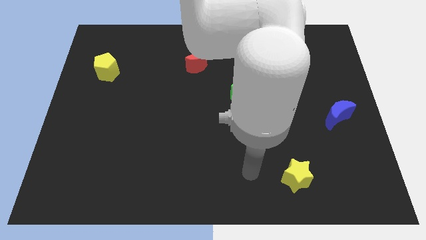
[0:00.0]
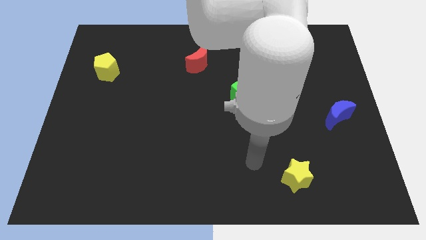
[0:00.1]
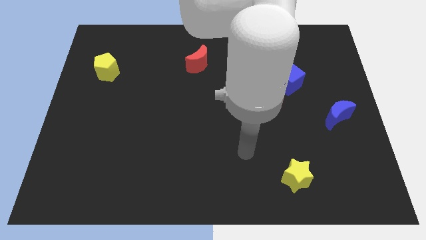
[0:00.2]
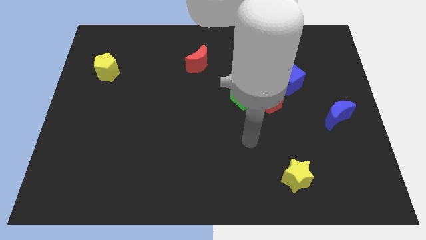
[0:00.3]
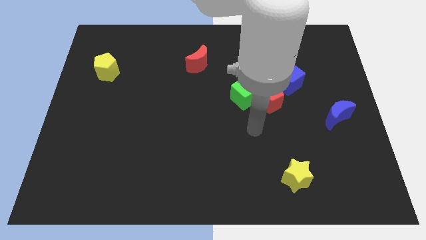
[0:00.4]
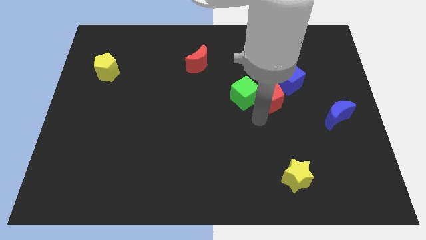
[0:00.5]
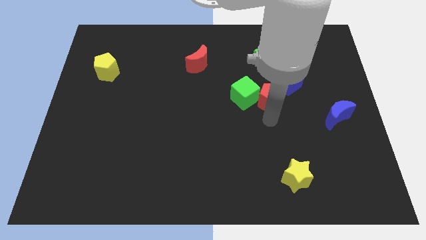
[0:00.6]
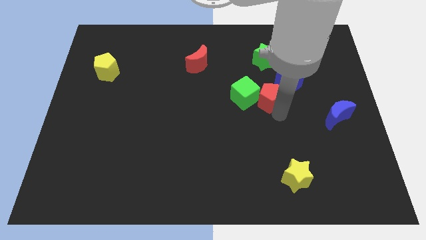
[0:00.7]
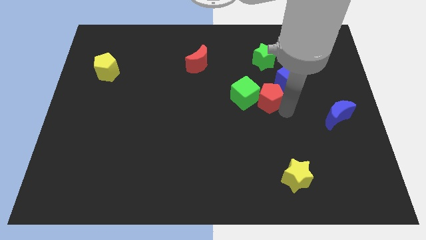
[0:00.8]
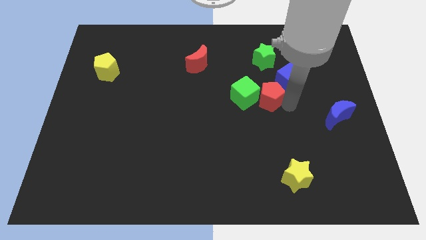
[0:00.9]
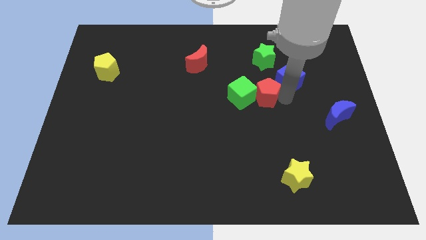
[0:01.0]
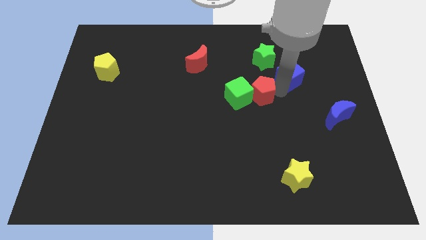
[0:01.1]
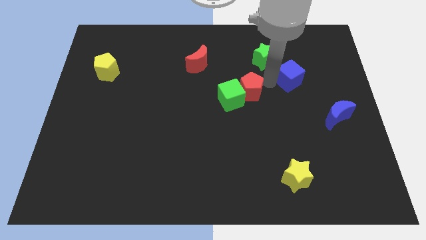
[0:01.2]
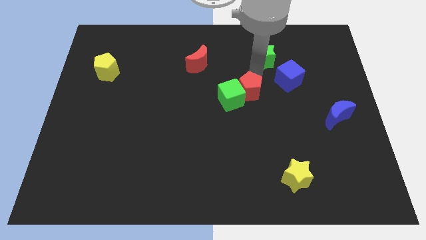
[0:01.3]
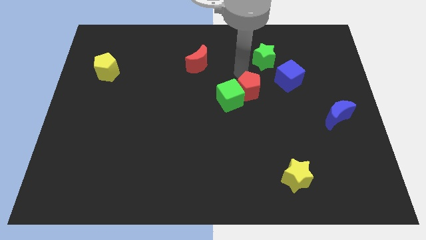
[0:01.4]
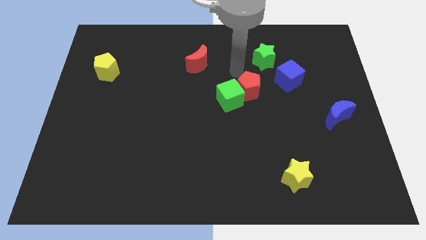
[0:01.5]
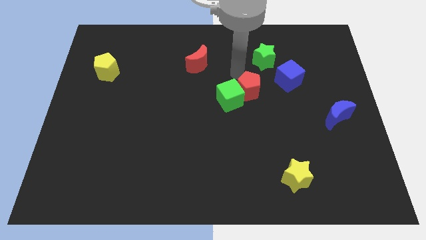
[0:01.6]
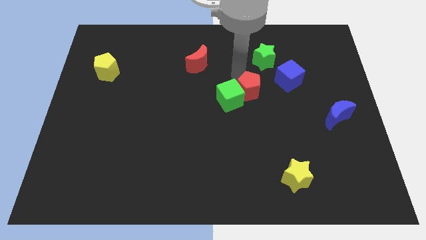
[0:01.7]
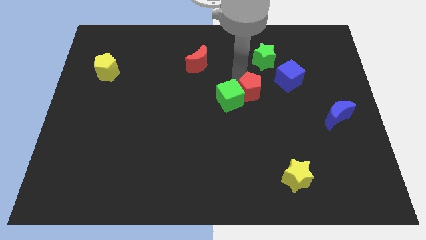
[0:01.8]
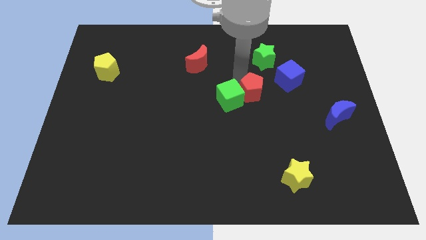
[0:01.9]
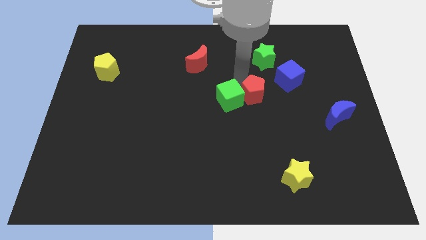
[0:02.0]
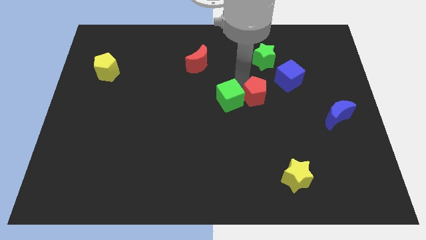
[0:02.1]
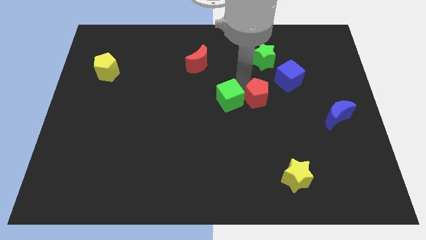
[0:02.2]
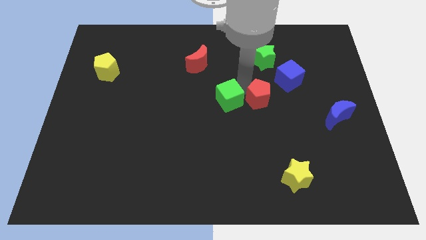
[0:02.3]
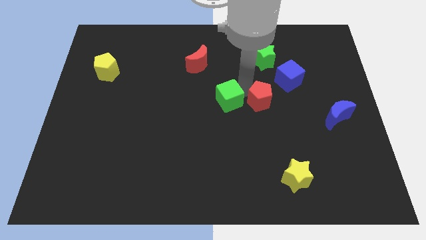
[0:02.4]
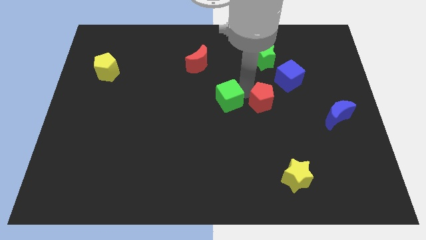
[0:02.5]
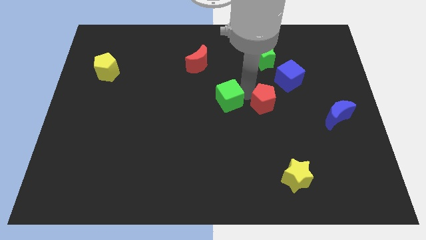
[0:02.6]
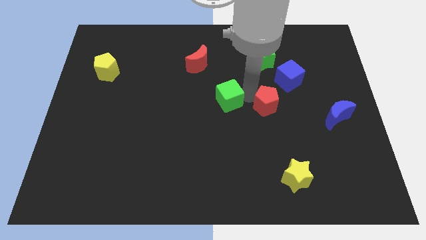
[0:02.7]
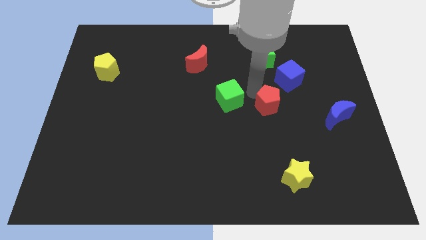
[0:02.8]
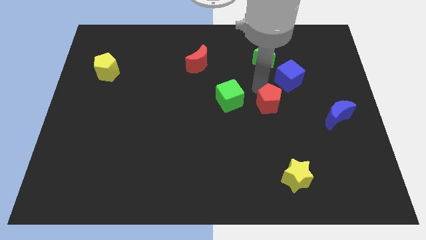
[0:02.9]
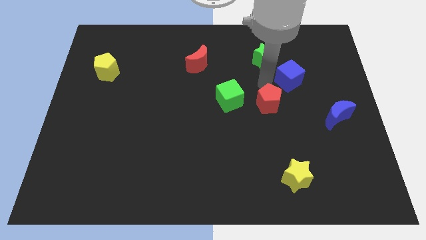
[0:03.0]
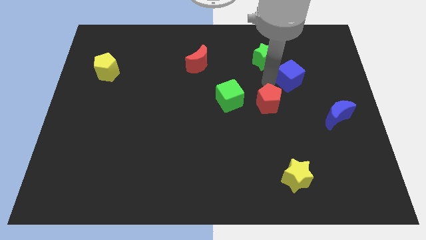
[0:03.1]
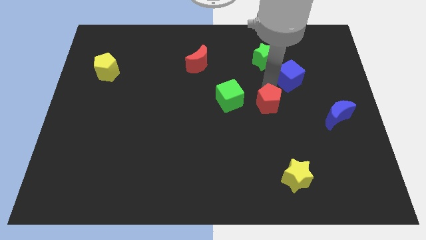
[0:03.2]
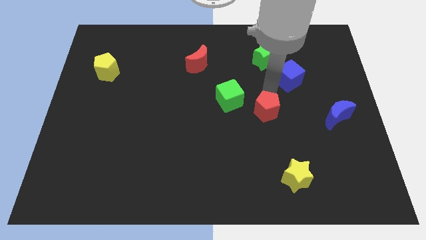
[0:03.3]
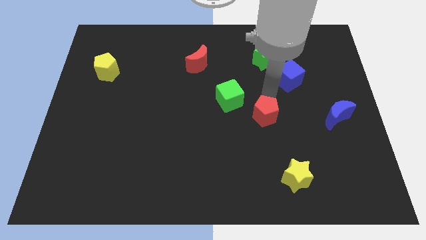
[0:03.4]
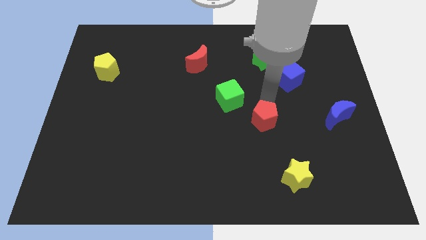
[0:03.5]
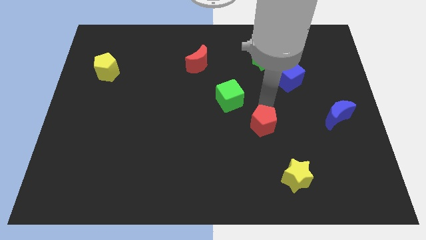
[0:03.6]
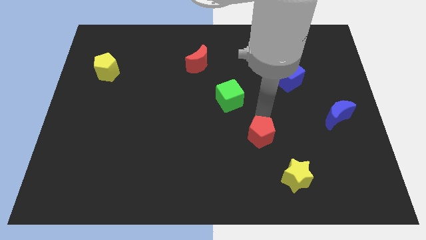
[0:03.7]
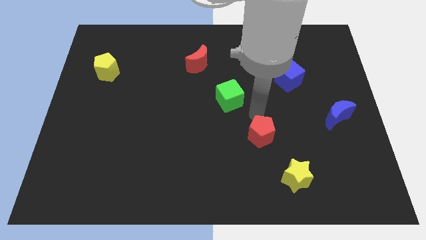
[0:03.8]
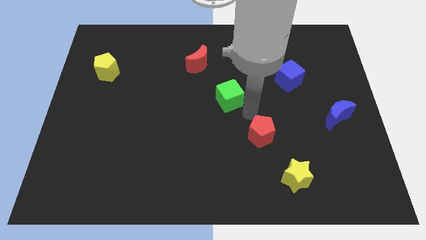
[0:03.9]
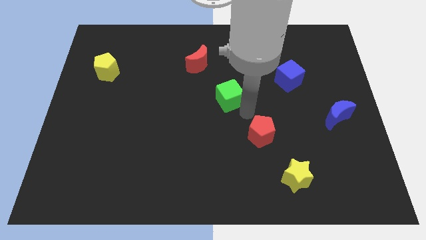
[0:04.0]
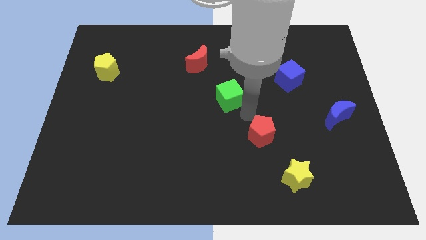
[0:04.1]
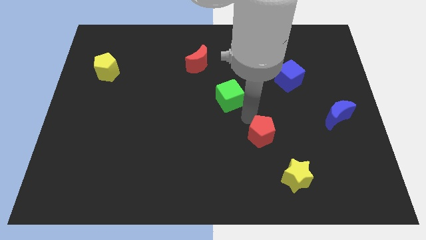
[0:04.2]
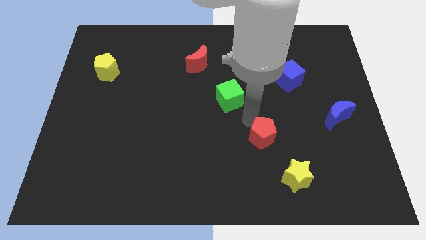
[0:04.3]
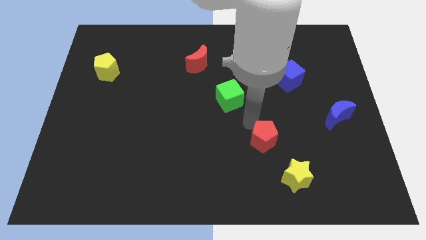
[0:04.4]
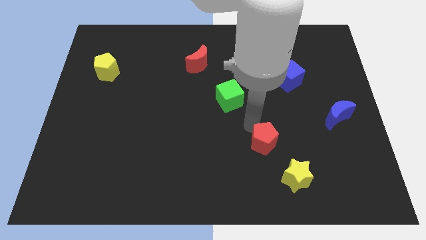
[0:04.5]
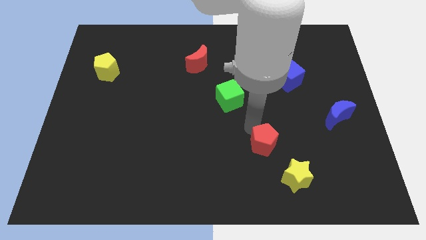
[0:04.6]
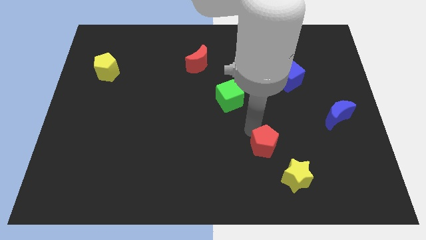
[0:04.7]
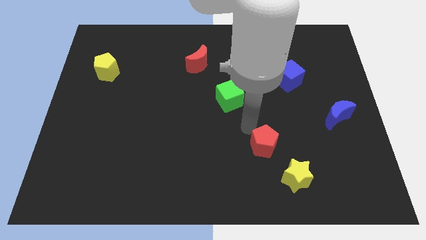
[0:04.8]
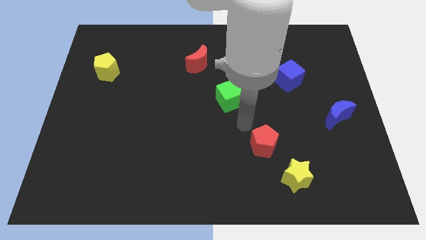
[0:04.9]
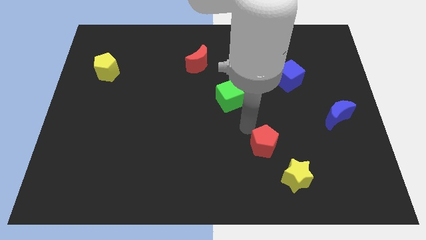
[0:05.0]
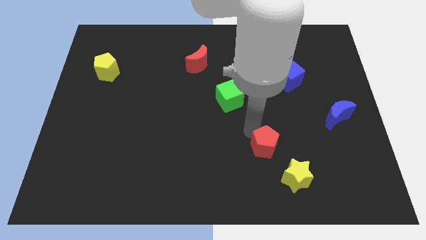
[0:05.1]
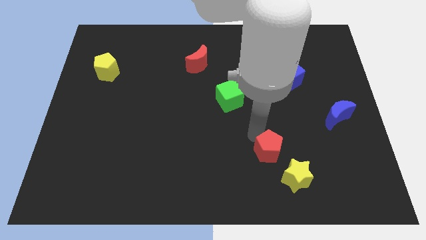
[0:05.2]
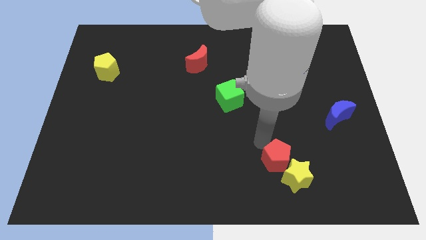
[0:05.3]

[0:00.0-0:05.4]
move the red pentagon to the yellow star
